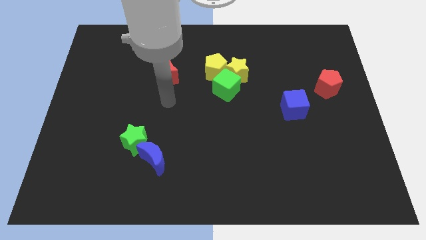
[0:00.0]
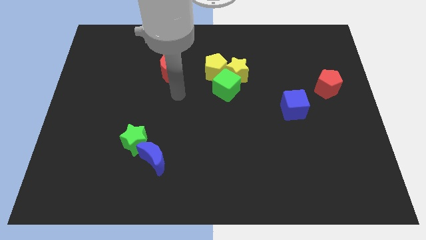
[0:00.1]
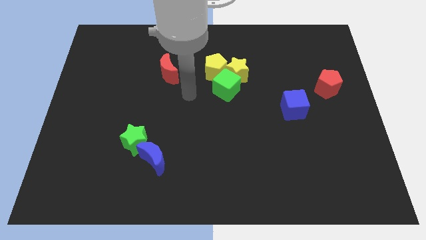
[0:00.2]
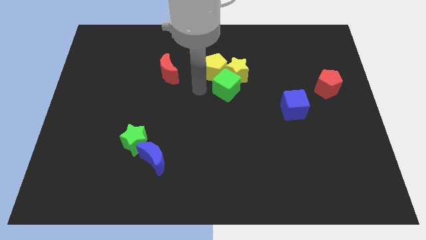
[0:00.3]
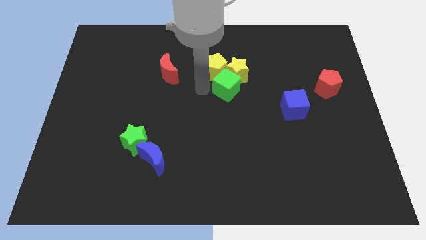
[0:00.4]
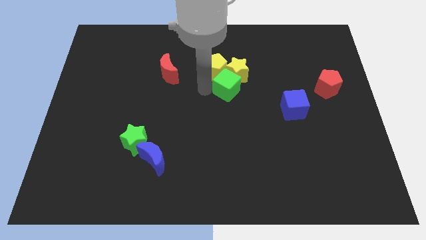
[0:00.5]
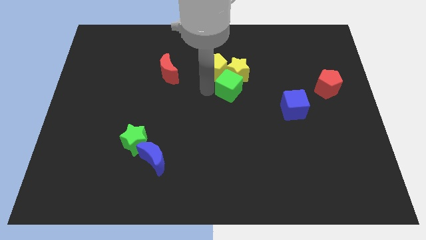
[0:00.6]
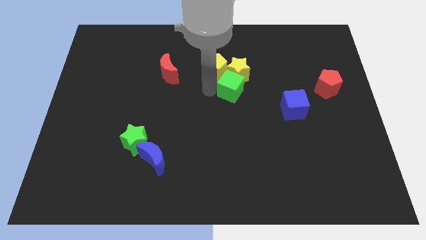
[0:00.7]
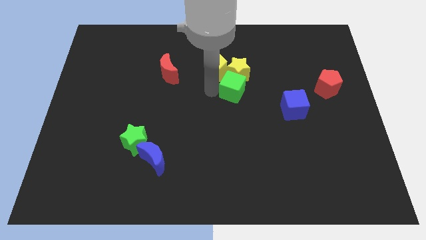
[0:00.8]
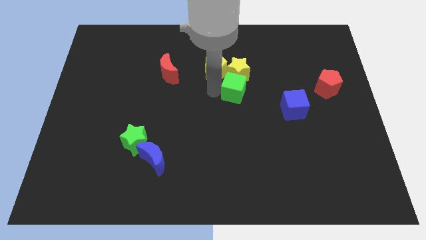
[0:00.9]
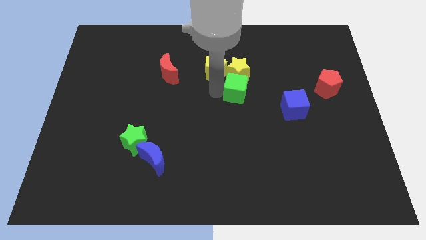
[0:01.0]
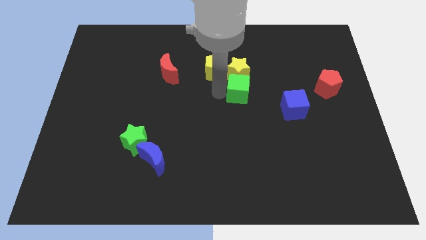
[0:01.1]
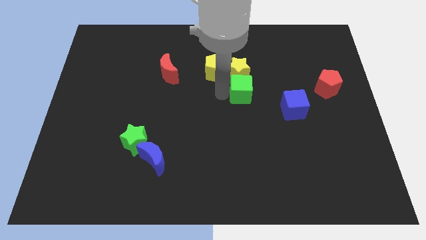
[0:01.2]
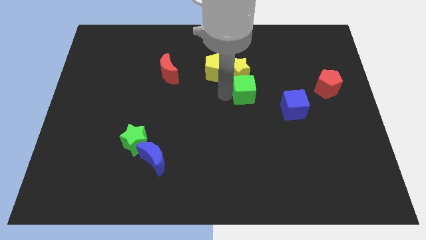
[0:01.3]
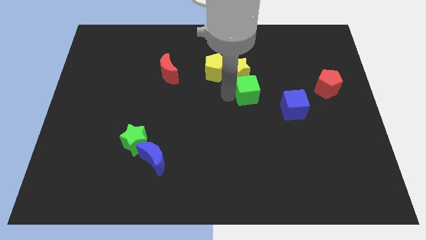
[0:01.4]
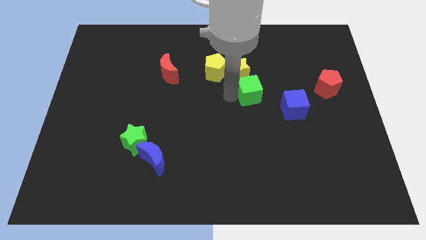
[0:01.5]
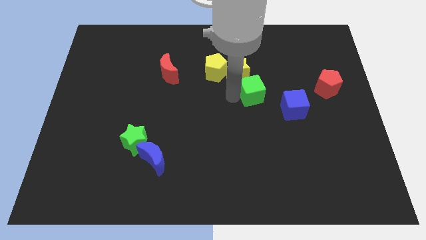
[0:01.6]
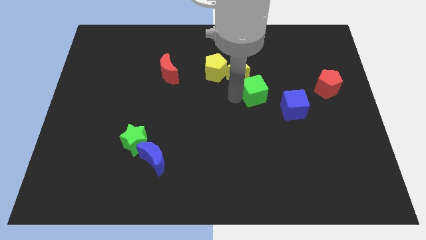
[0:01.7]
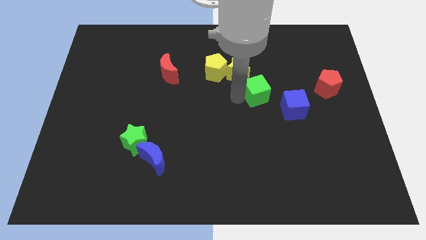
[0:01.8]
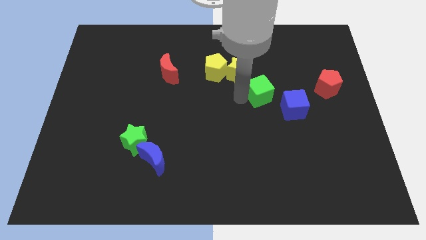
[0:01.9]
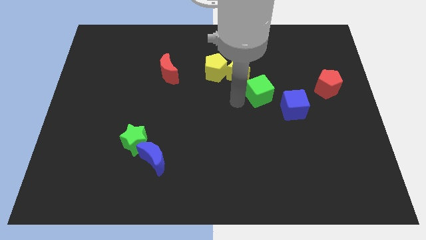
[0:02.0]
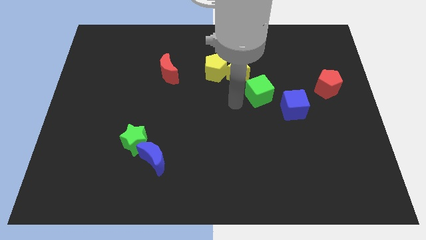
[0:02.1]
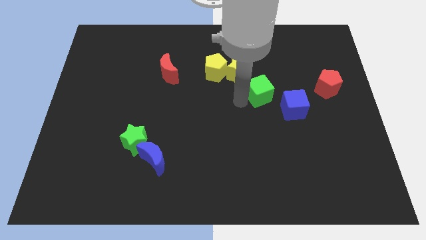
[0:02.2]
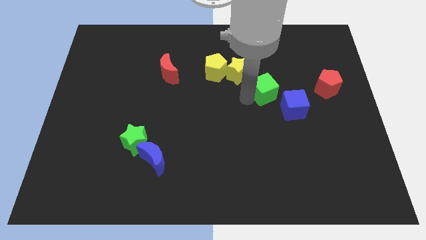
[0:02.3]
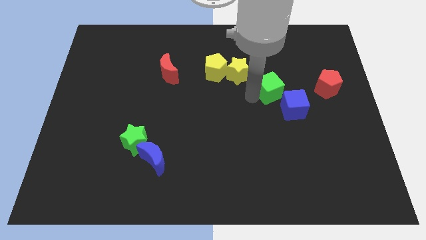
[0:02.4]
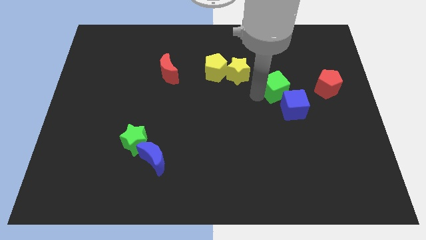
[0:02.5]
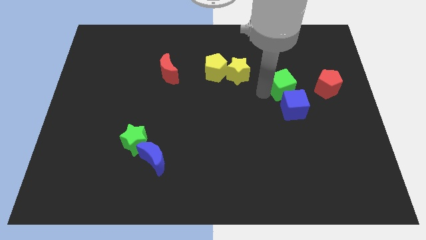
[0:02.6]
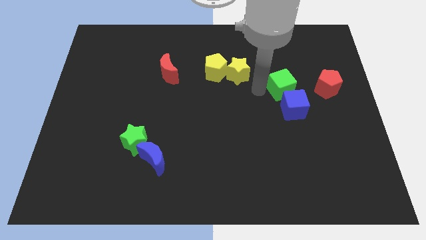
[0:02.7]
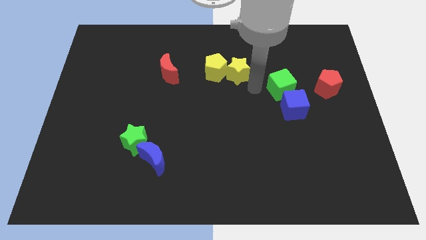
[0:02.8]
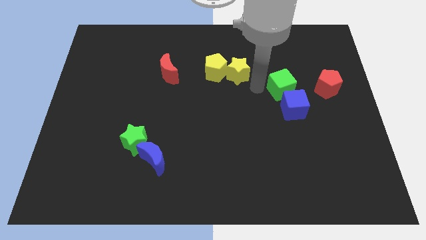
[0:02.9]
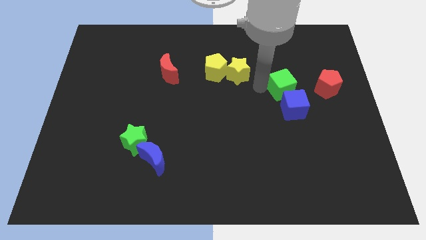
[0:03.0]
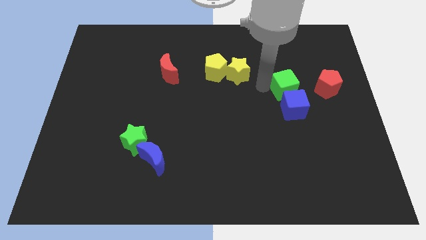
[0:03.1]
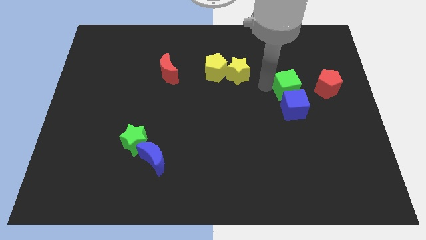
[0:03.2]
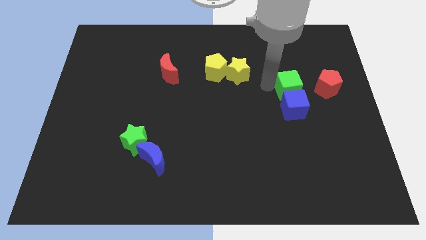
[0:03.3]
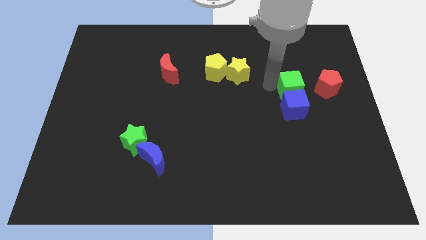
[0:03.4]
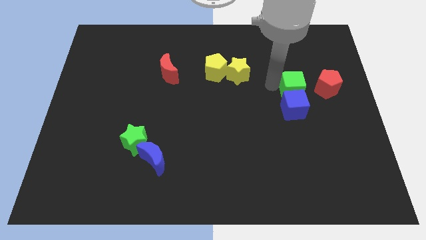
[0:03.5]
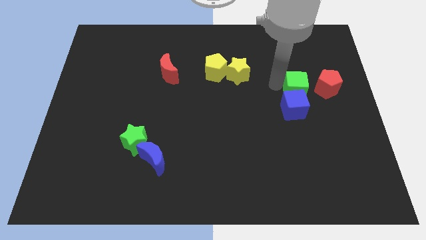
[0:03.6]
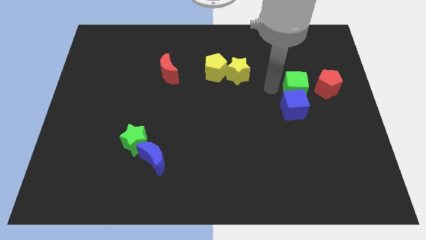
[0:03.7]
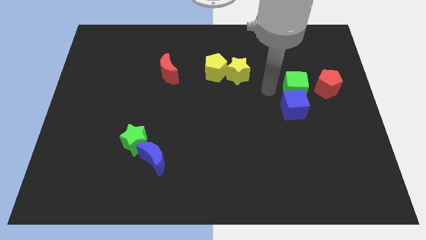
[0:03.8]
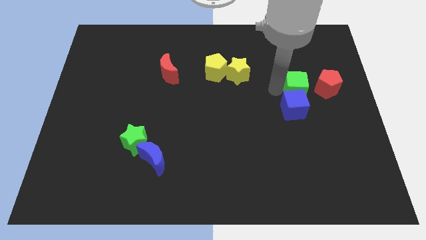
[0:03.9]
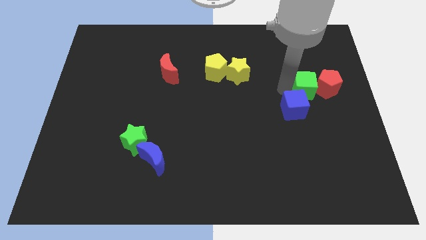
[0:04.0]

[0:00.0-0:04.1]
push the green cube to the red pentagon

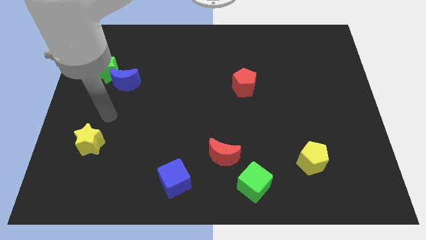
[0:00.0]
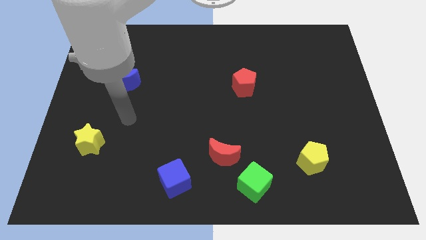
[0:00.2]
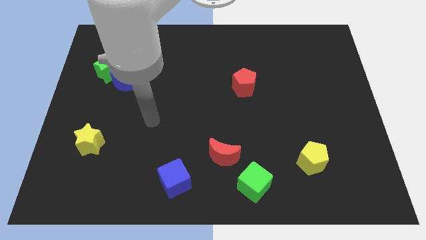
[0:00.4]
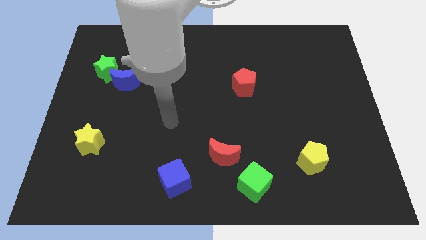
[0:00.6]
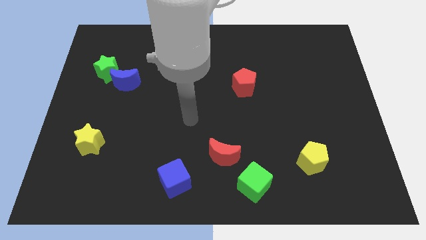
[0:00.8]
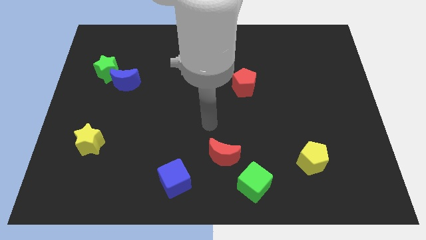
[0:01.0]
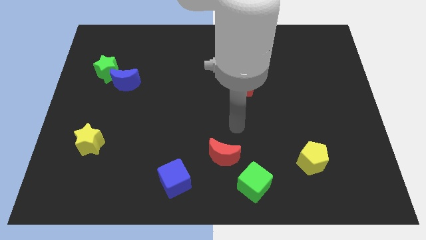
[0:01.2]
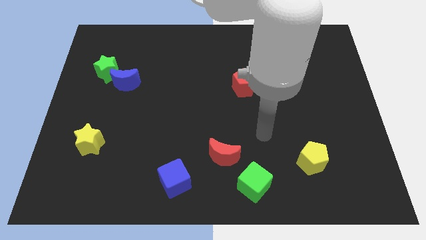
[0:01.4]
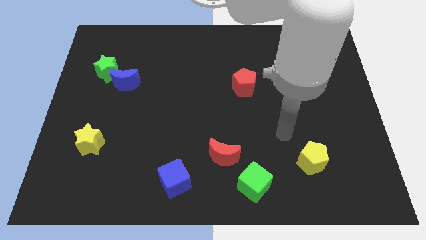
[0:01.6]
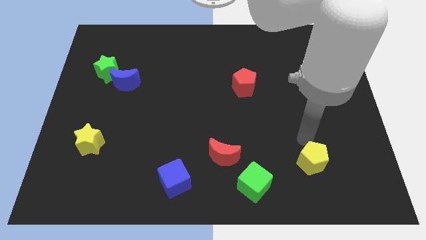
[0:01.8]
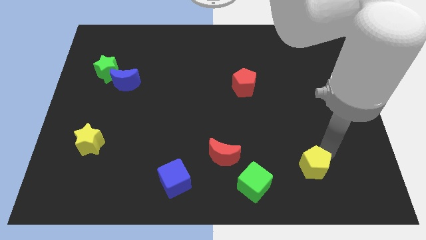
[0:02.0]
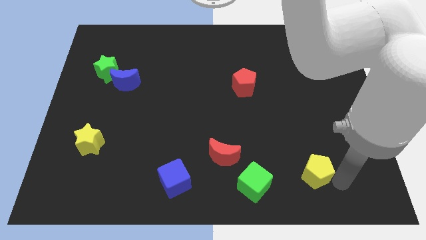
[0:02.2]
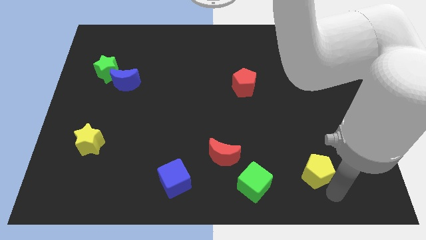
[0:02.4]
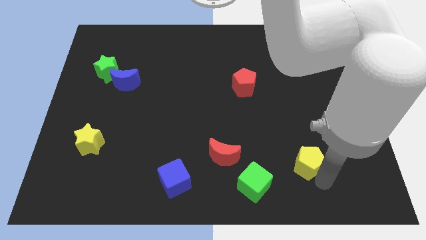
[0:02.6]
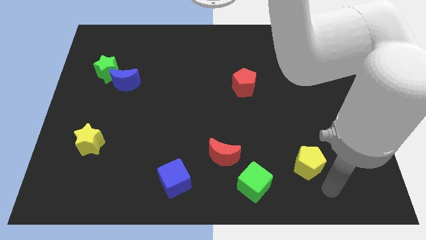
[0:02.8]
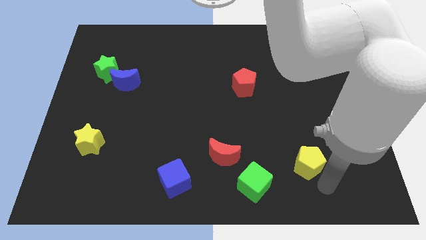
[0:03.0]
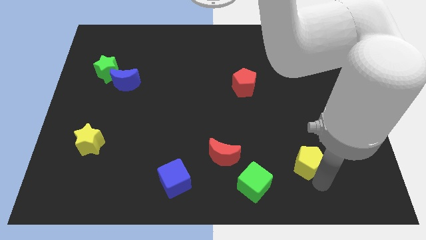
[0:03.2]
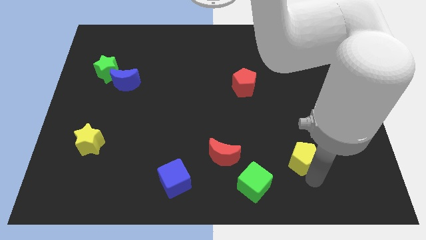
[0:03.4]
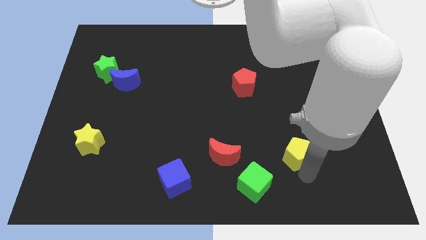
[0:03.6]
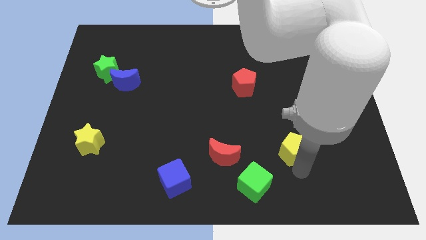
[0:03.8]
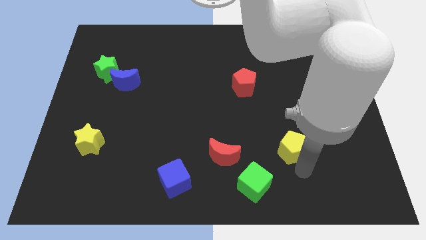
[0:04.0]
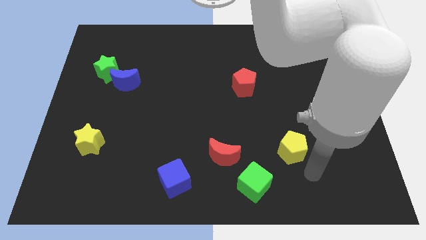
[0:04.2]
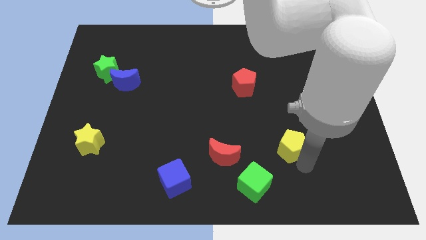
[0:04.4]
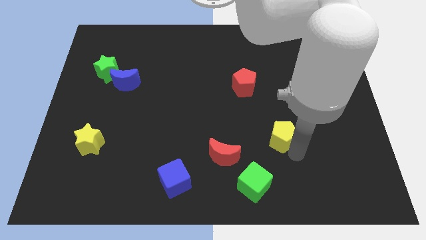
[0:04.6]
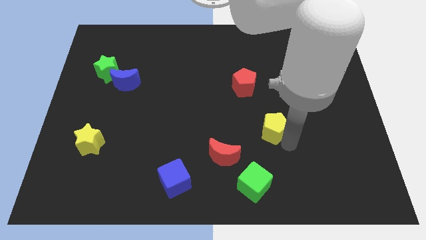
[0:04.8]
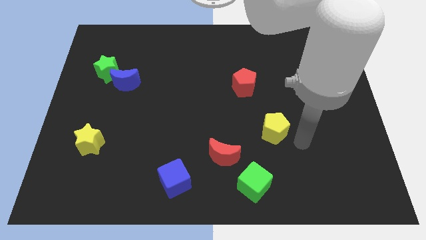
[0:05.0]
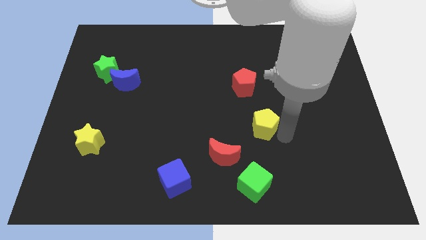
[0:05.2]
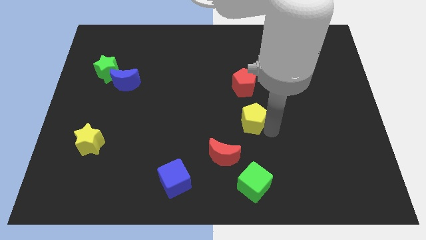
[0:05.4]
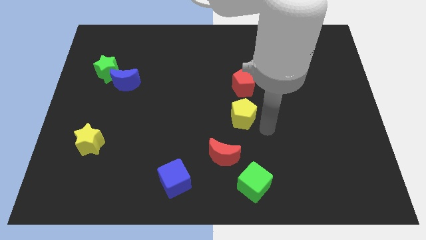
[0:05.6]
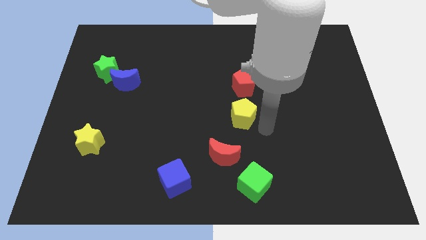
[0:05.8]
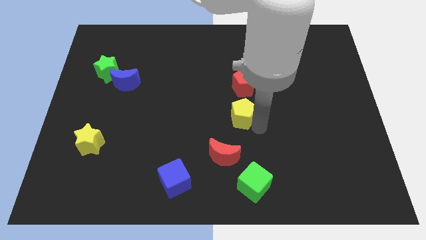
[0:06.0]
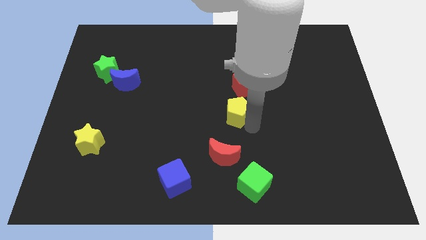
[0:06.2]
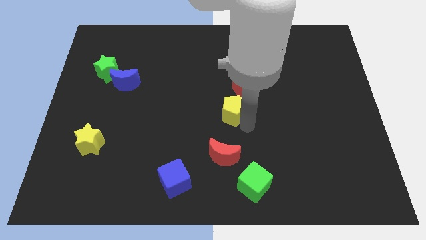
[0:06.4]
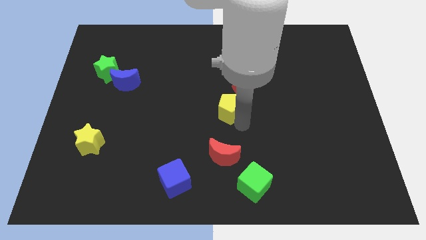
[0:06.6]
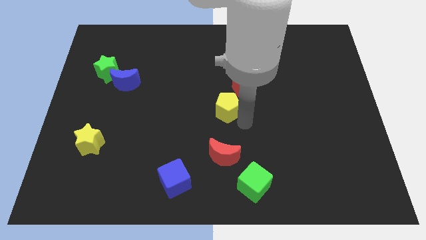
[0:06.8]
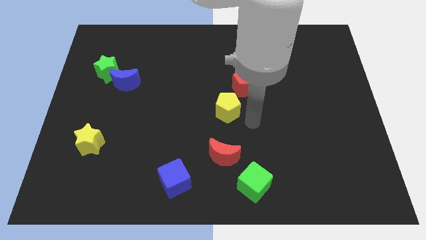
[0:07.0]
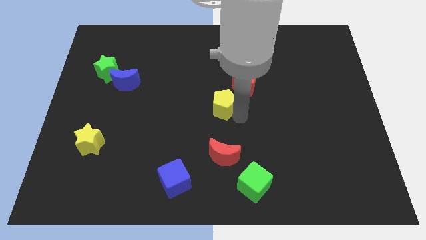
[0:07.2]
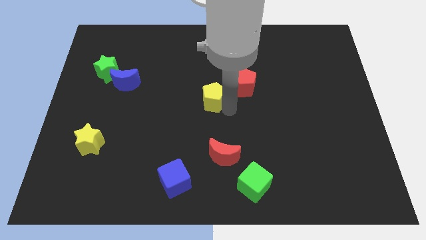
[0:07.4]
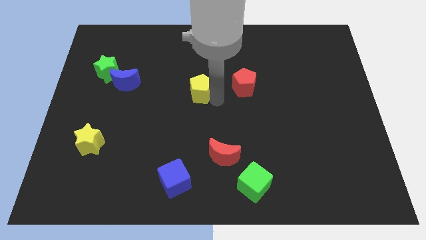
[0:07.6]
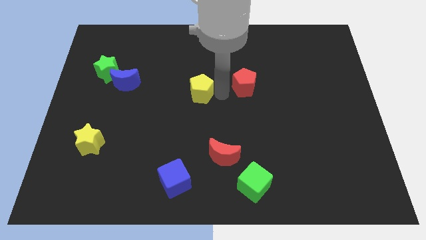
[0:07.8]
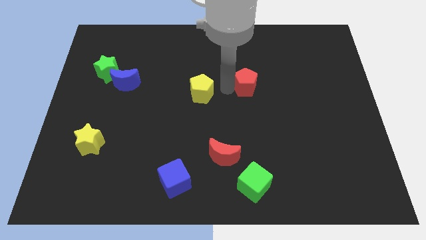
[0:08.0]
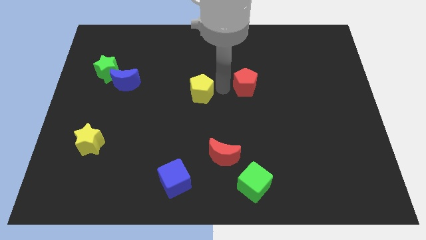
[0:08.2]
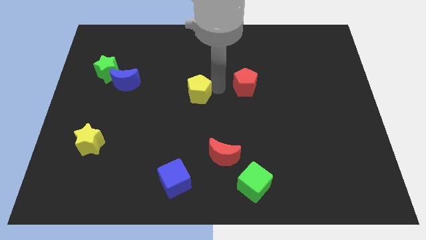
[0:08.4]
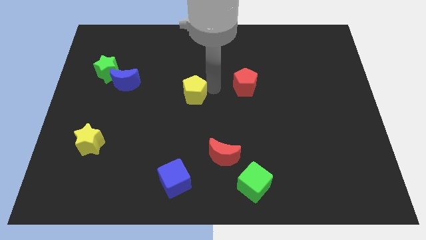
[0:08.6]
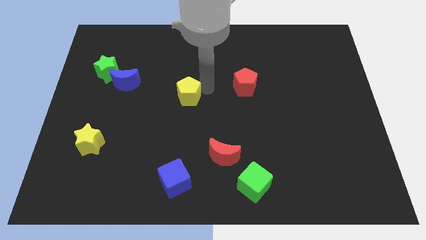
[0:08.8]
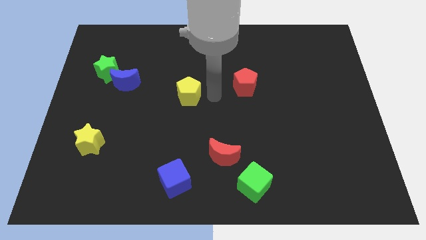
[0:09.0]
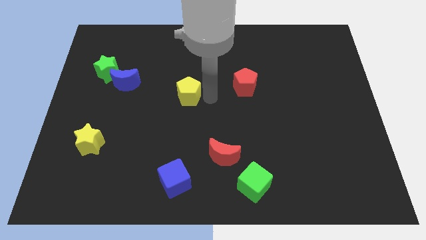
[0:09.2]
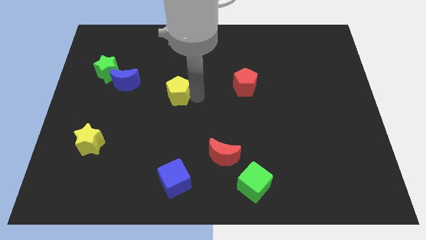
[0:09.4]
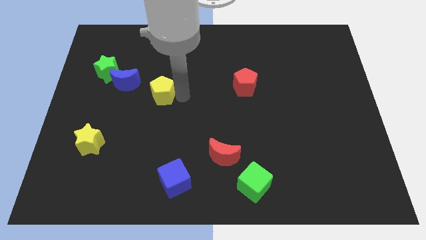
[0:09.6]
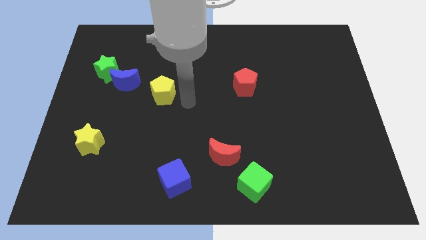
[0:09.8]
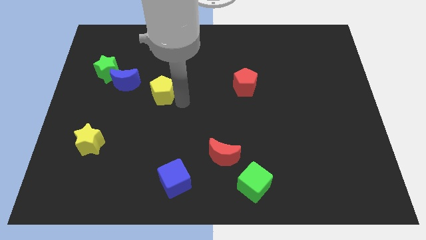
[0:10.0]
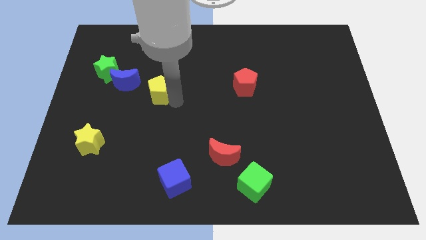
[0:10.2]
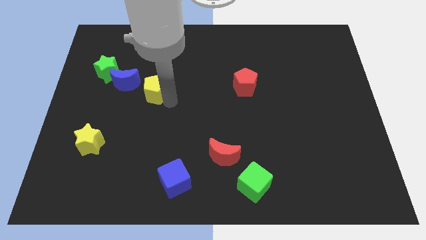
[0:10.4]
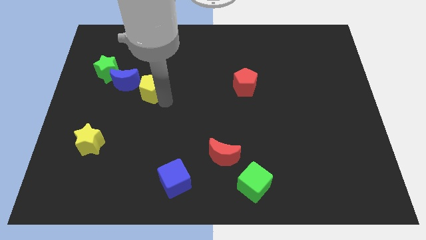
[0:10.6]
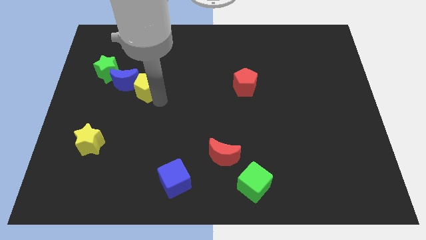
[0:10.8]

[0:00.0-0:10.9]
slide the yellow pentagon close to the blue moon
